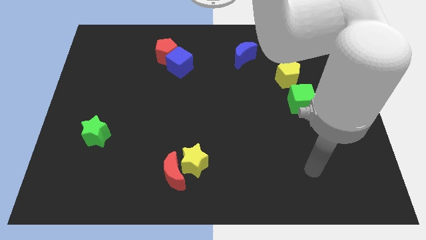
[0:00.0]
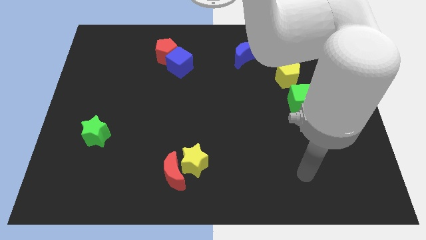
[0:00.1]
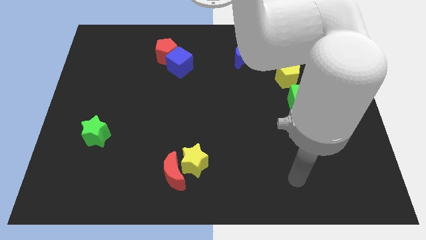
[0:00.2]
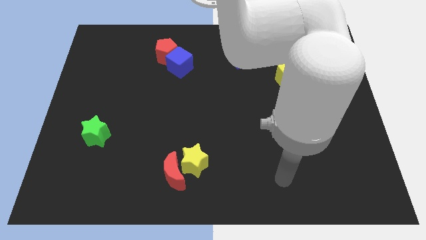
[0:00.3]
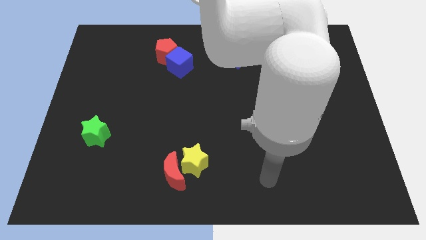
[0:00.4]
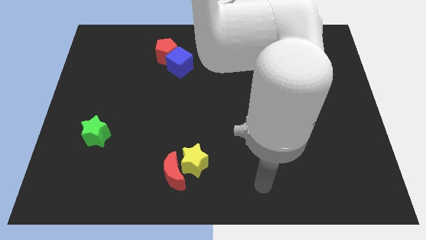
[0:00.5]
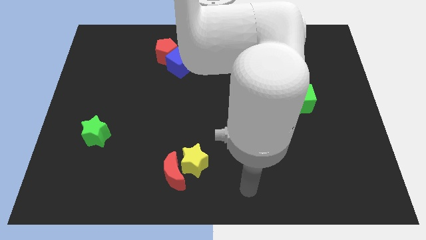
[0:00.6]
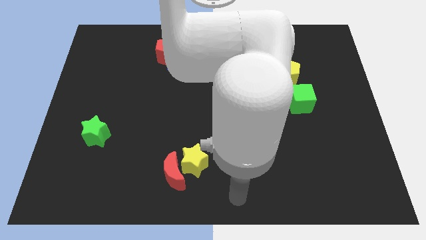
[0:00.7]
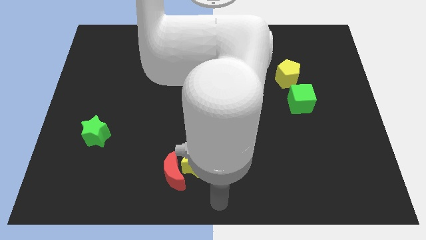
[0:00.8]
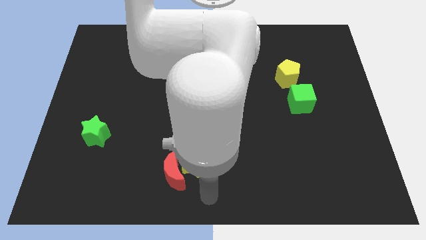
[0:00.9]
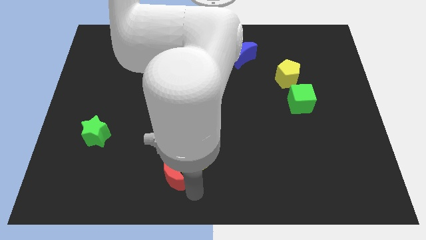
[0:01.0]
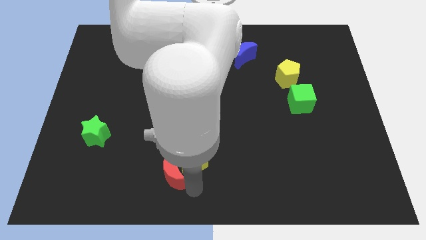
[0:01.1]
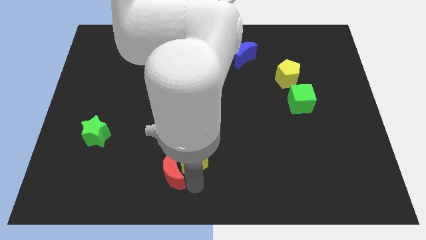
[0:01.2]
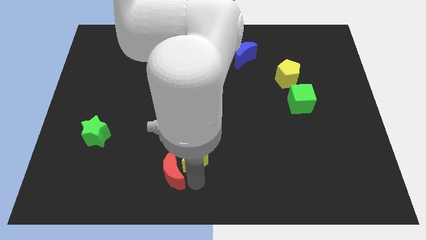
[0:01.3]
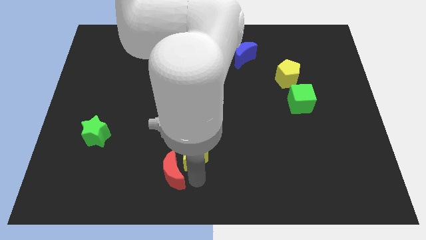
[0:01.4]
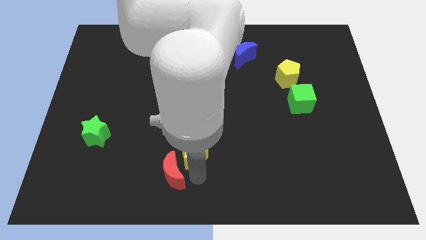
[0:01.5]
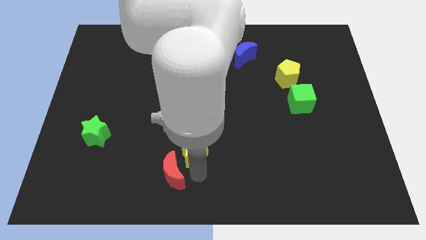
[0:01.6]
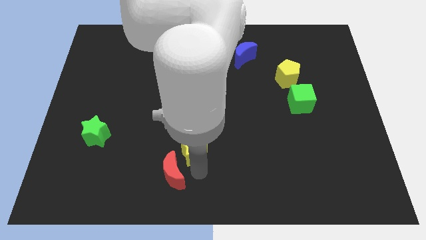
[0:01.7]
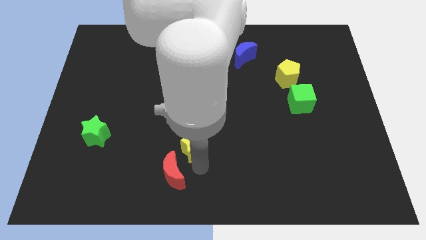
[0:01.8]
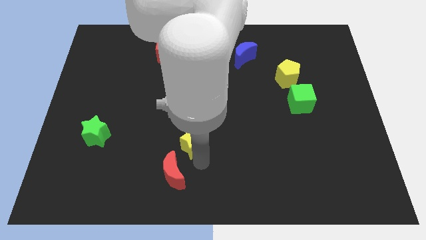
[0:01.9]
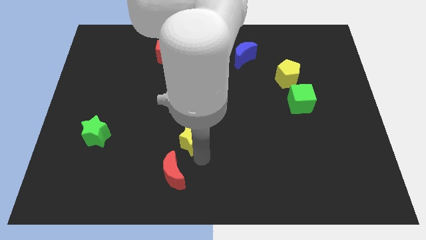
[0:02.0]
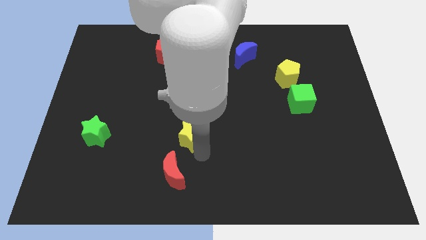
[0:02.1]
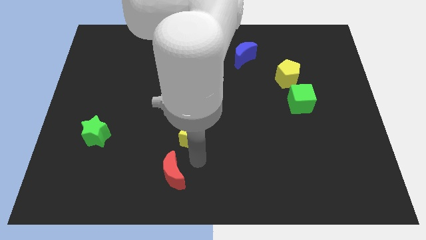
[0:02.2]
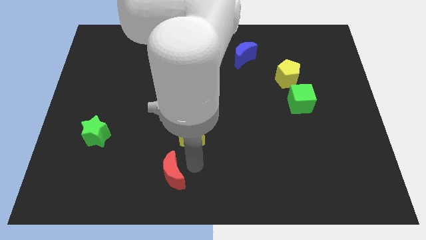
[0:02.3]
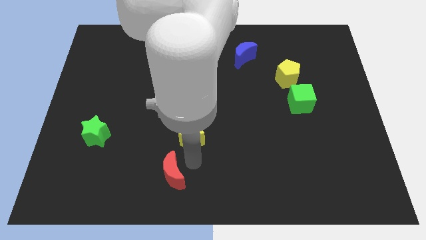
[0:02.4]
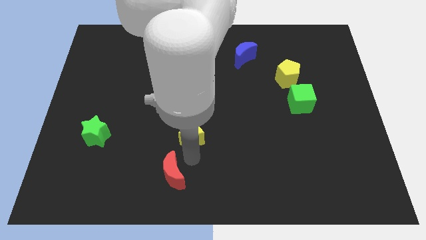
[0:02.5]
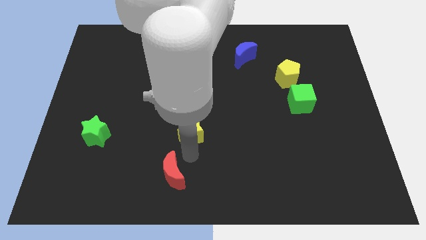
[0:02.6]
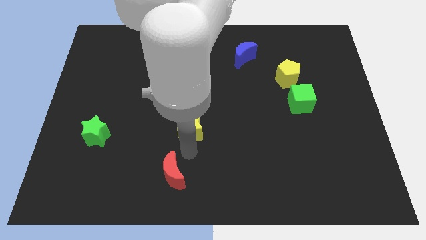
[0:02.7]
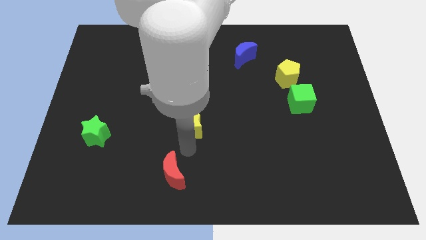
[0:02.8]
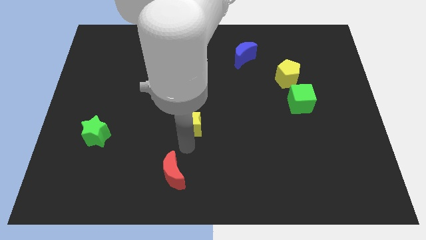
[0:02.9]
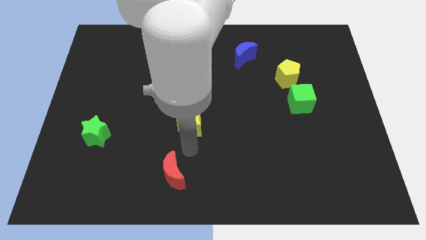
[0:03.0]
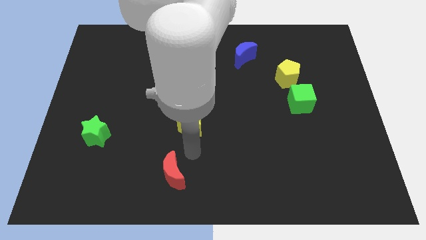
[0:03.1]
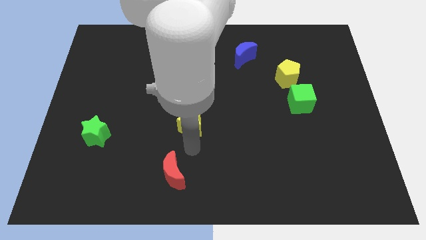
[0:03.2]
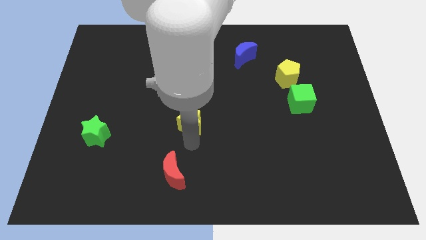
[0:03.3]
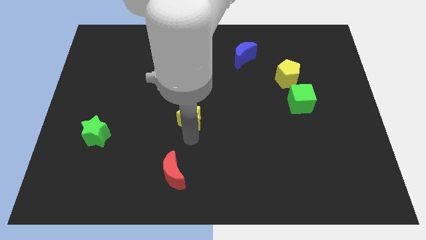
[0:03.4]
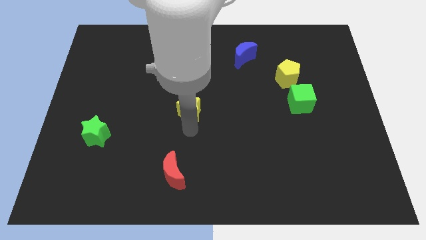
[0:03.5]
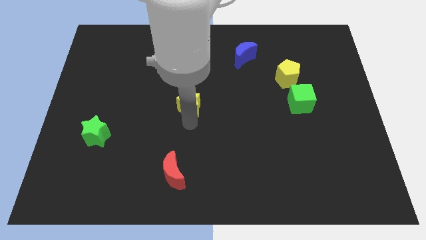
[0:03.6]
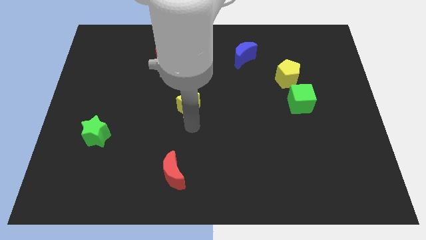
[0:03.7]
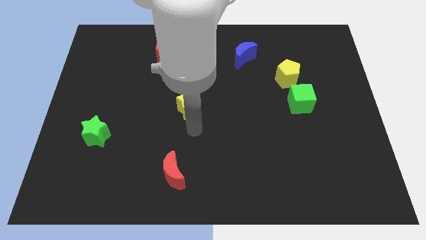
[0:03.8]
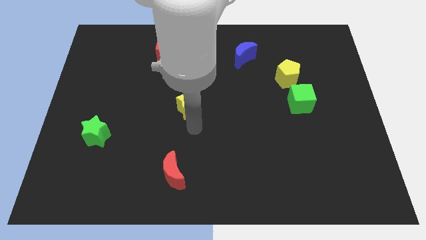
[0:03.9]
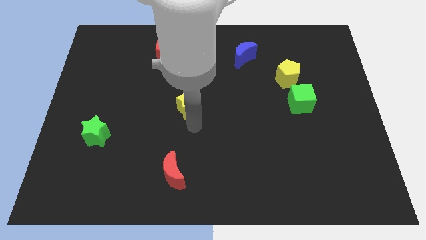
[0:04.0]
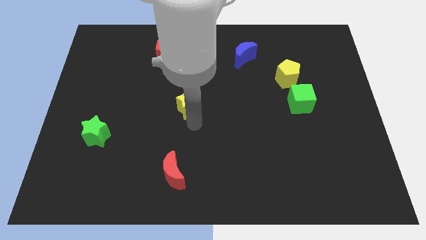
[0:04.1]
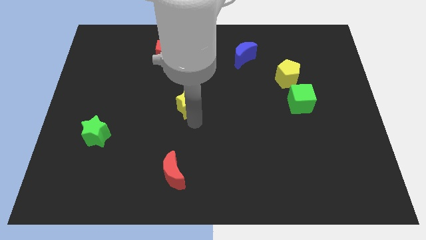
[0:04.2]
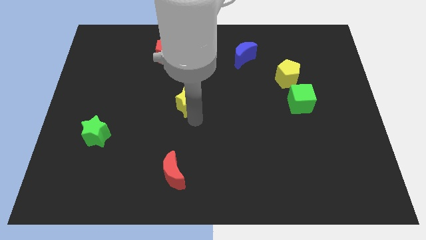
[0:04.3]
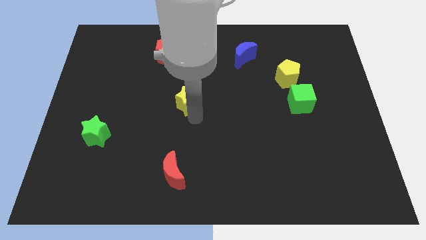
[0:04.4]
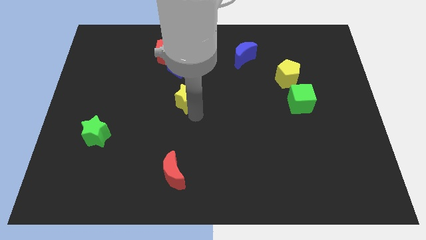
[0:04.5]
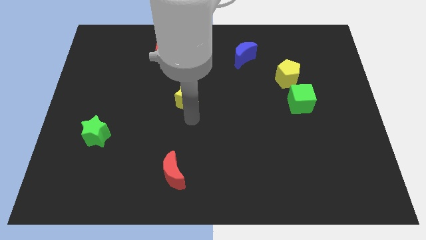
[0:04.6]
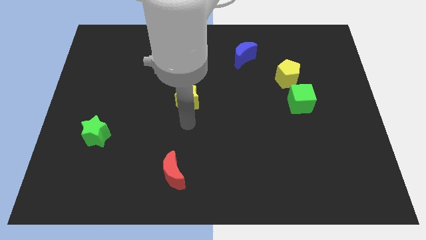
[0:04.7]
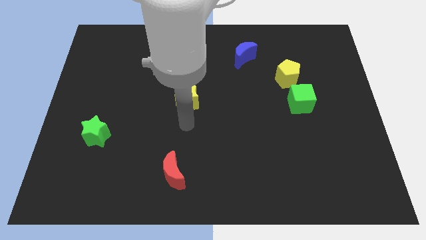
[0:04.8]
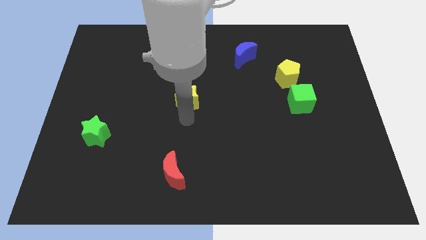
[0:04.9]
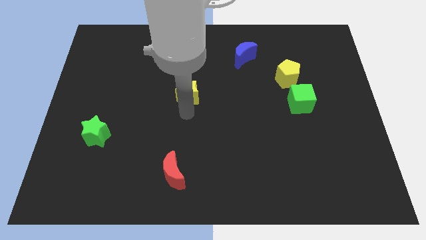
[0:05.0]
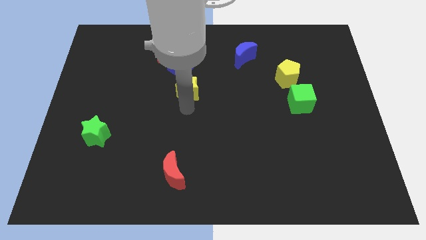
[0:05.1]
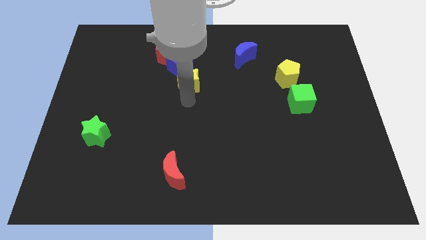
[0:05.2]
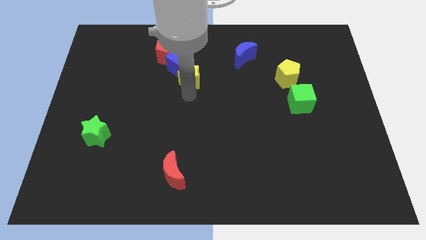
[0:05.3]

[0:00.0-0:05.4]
put the yellow star next to the blue cube

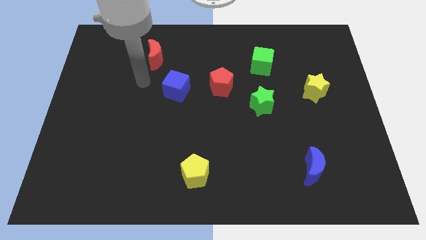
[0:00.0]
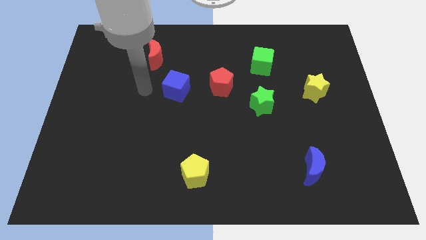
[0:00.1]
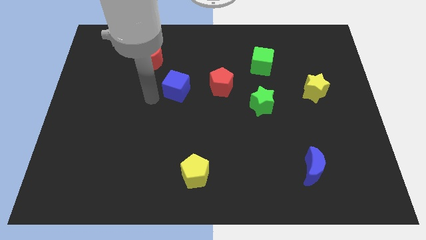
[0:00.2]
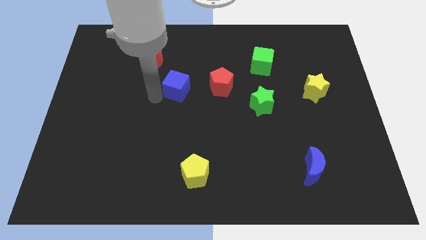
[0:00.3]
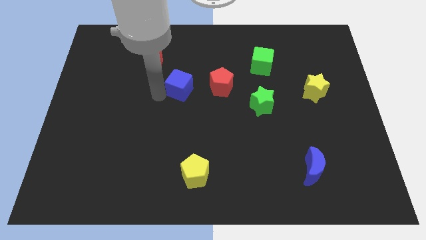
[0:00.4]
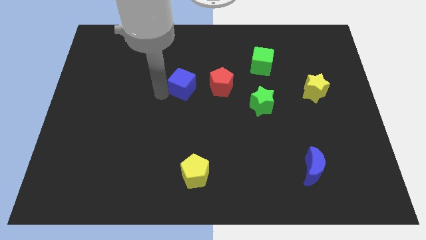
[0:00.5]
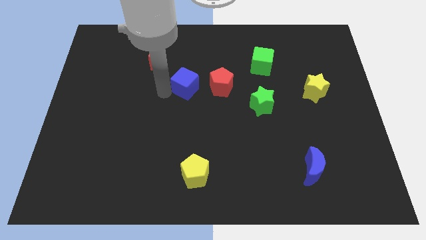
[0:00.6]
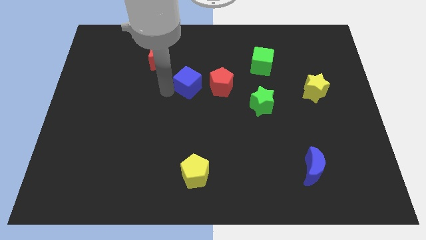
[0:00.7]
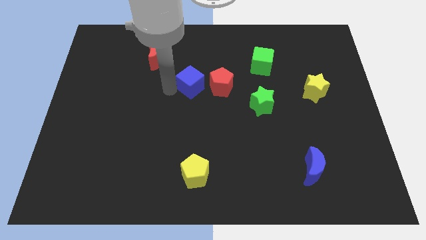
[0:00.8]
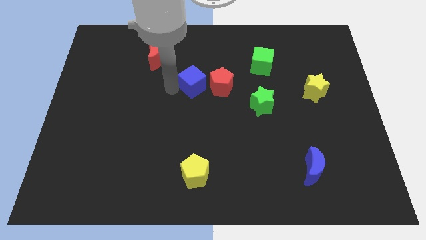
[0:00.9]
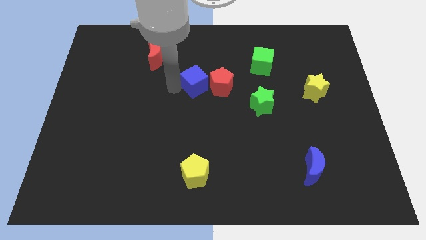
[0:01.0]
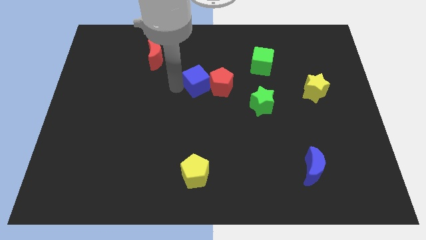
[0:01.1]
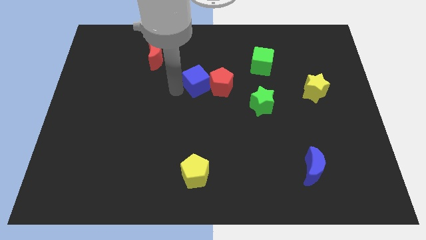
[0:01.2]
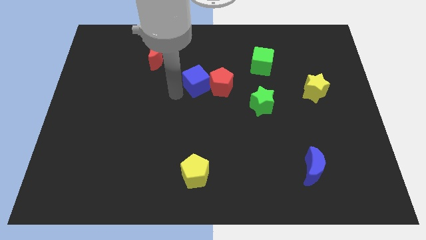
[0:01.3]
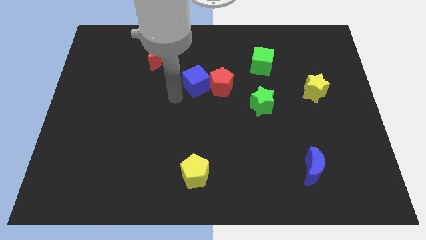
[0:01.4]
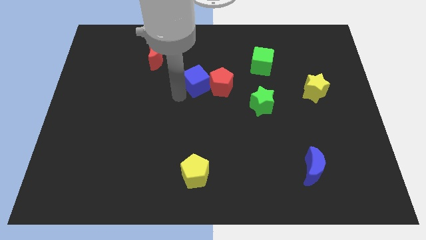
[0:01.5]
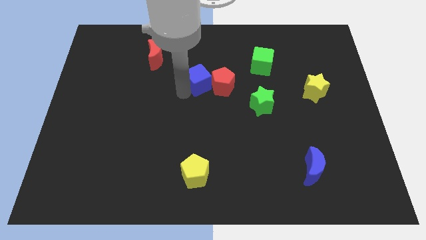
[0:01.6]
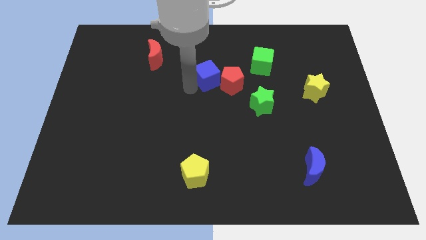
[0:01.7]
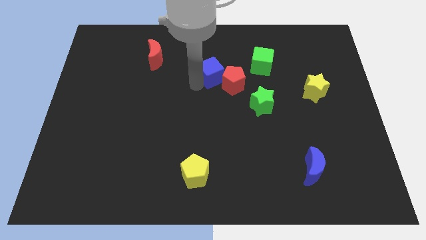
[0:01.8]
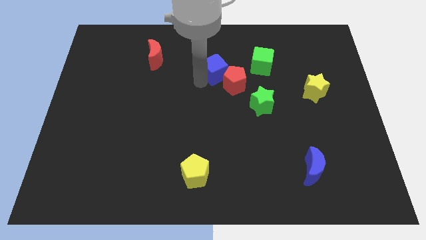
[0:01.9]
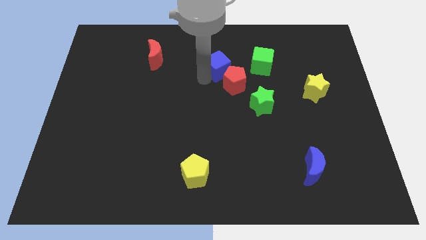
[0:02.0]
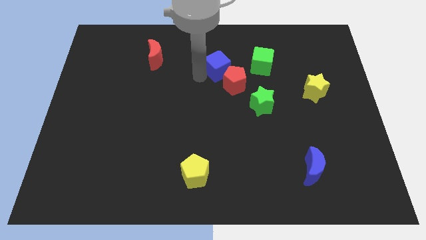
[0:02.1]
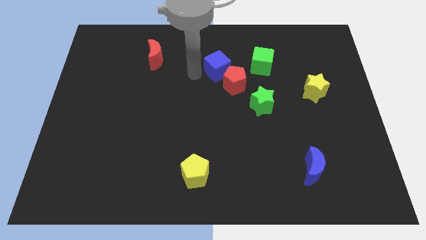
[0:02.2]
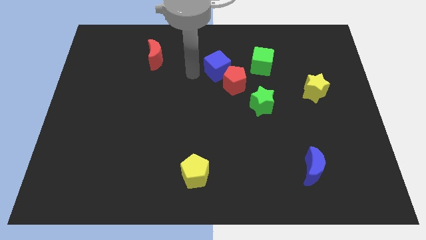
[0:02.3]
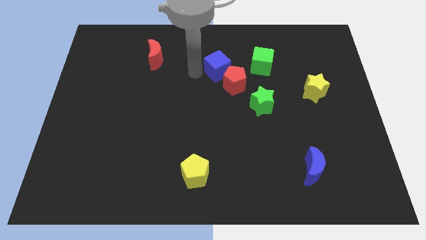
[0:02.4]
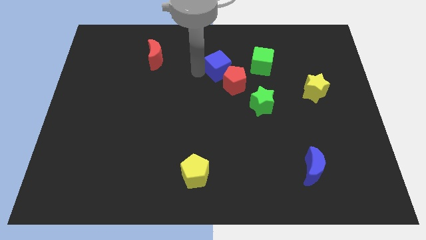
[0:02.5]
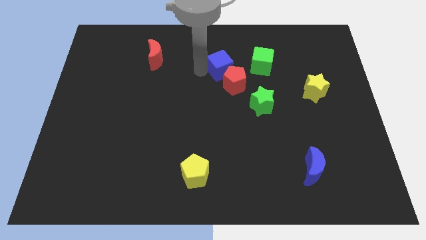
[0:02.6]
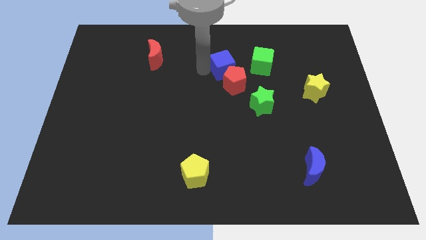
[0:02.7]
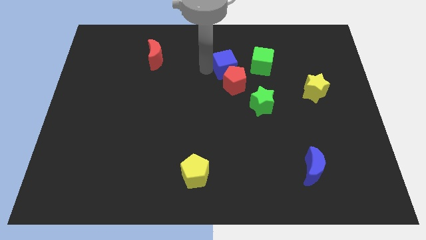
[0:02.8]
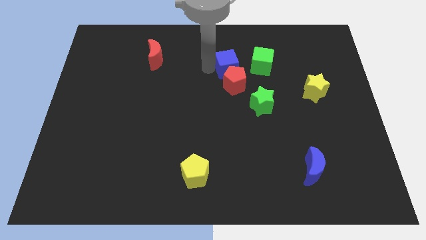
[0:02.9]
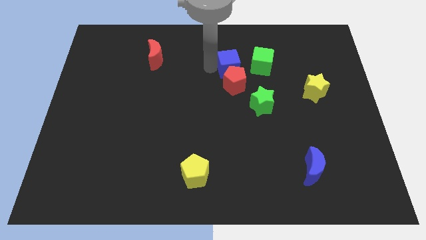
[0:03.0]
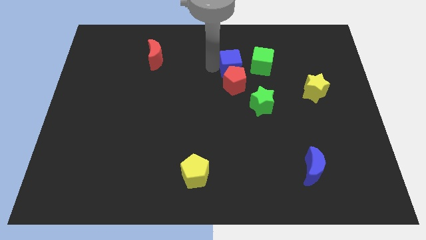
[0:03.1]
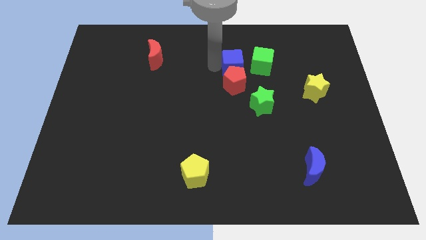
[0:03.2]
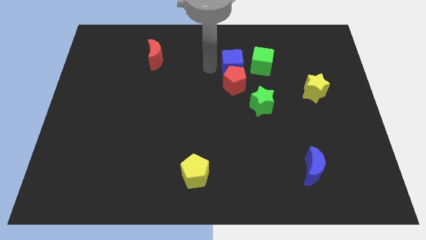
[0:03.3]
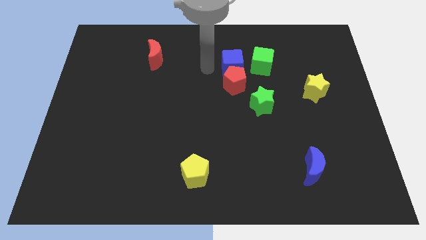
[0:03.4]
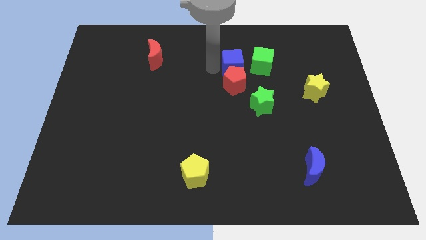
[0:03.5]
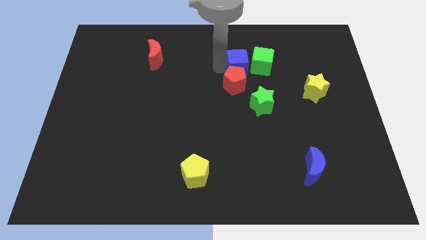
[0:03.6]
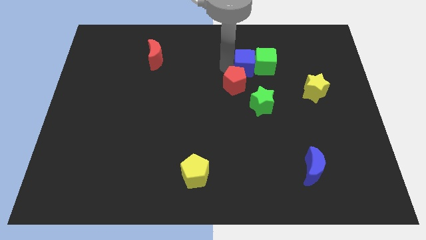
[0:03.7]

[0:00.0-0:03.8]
slide the blue cube close to the green cube
